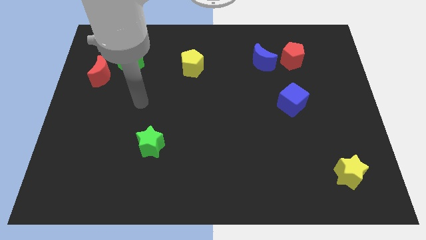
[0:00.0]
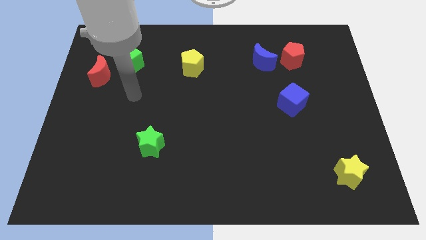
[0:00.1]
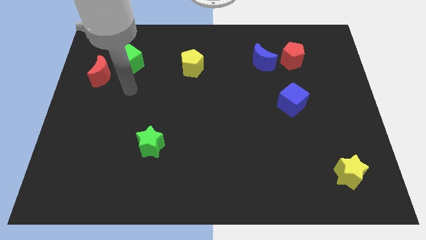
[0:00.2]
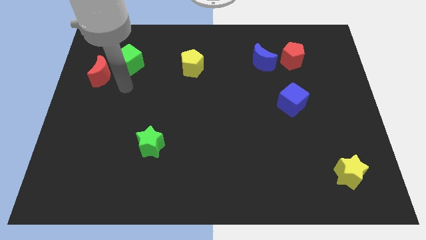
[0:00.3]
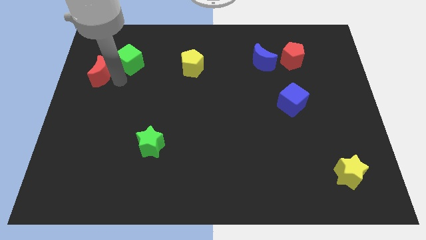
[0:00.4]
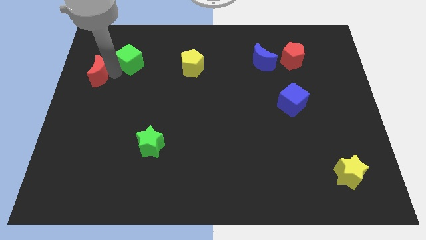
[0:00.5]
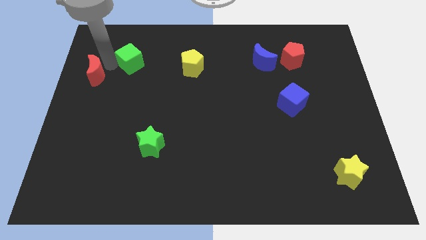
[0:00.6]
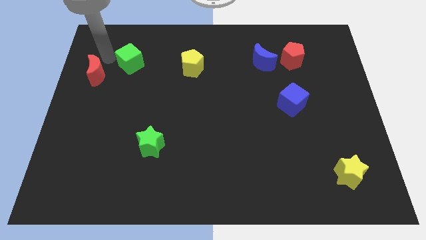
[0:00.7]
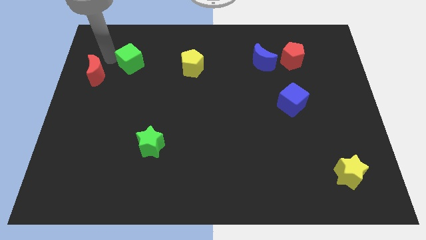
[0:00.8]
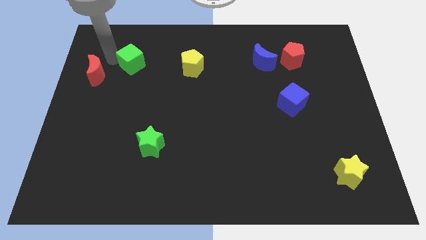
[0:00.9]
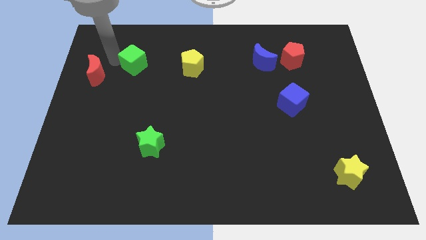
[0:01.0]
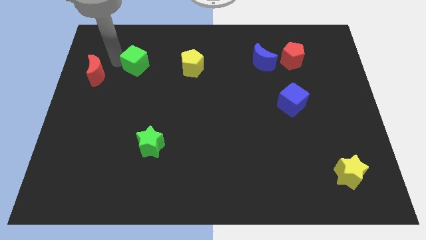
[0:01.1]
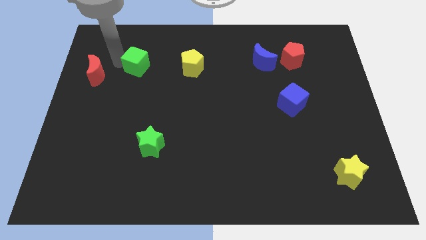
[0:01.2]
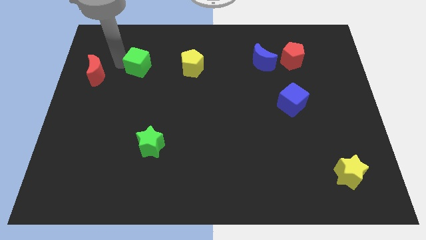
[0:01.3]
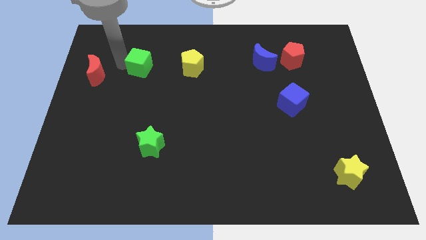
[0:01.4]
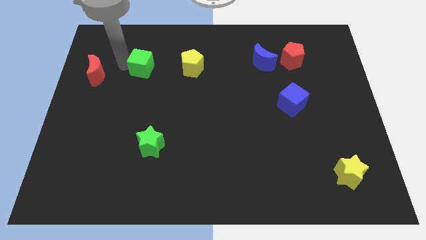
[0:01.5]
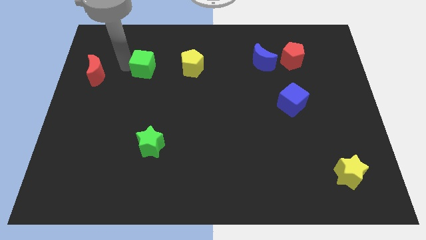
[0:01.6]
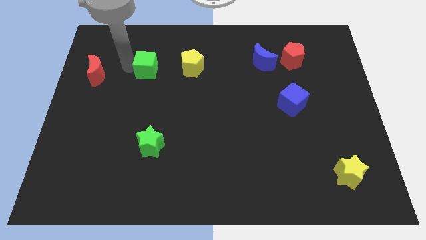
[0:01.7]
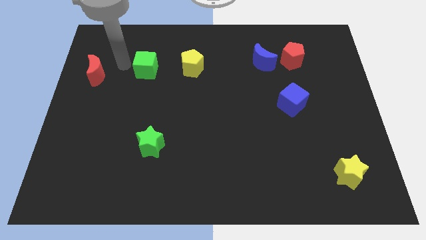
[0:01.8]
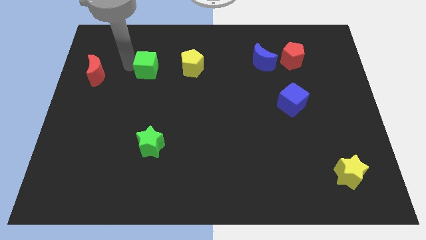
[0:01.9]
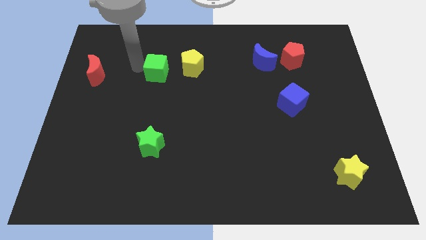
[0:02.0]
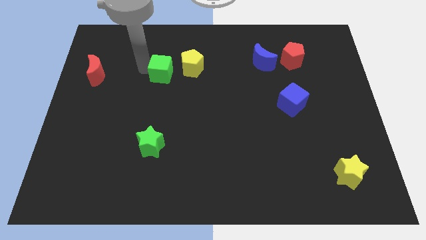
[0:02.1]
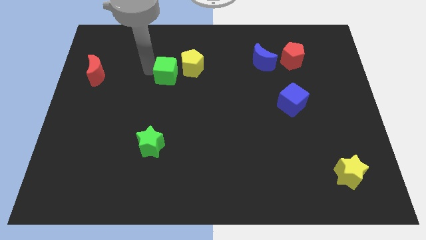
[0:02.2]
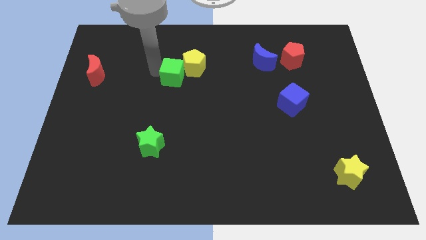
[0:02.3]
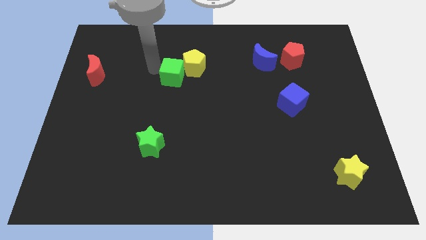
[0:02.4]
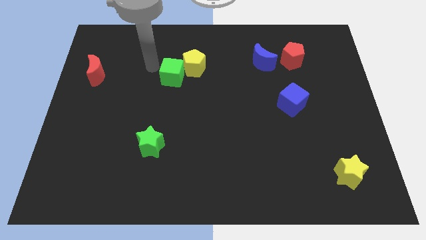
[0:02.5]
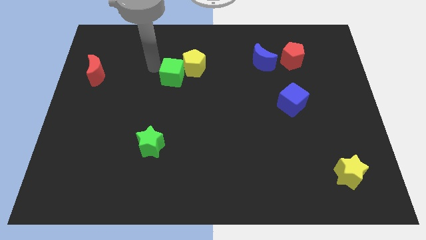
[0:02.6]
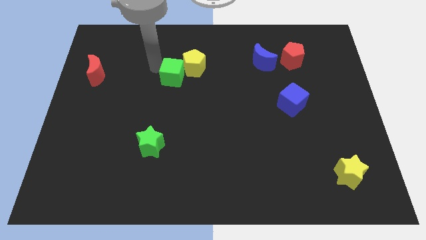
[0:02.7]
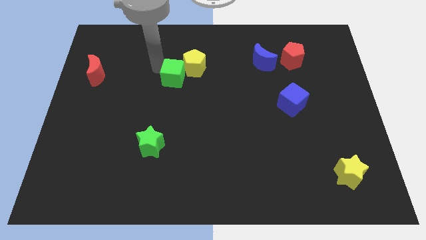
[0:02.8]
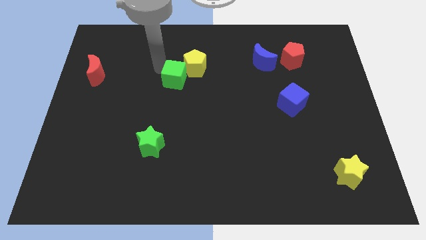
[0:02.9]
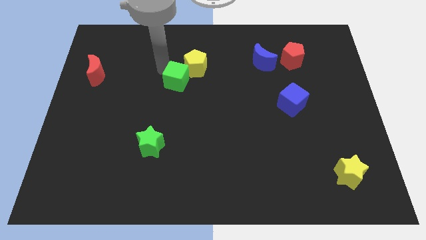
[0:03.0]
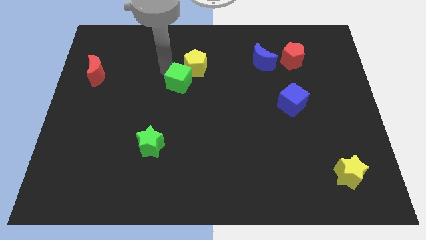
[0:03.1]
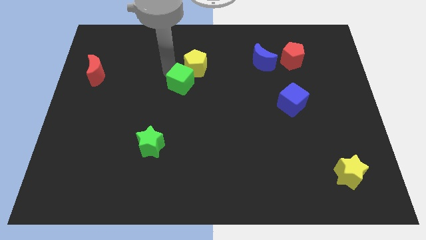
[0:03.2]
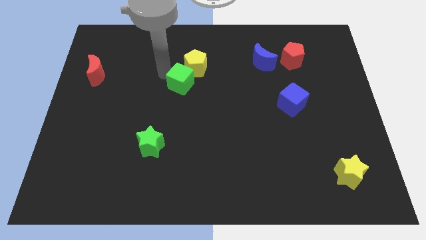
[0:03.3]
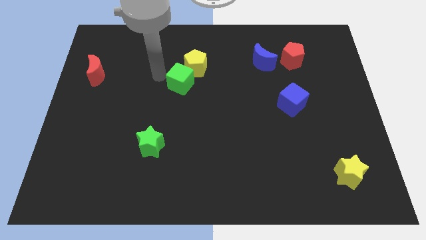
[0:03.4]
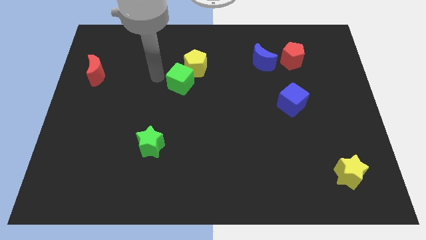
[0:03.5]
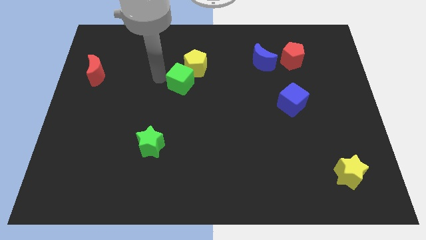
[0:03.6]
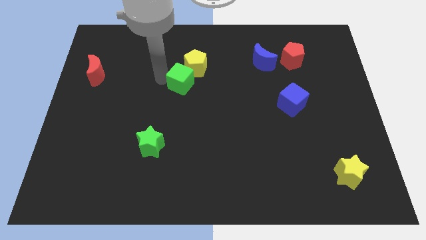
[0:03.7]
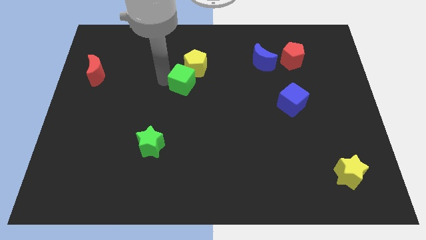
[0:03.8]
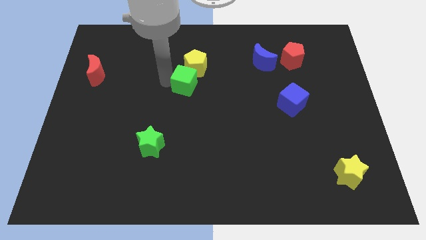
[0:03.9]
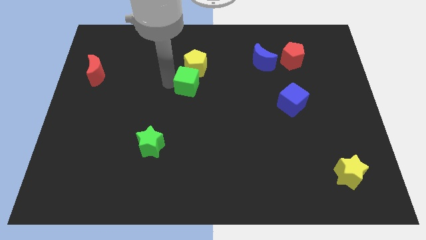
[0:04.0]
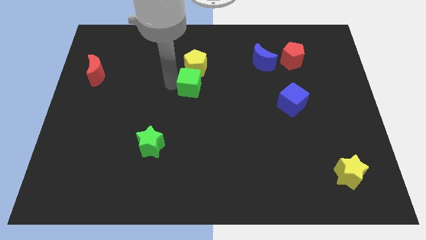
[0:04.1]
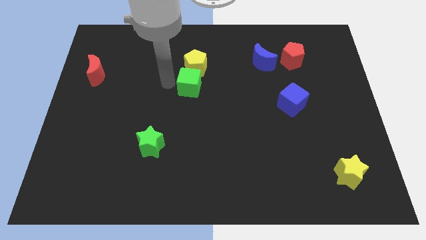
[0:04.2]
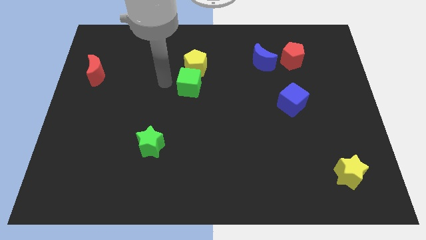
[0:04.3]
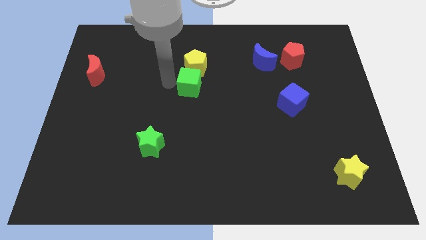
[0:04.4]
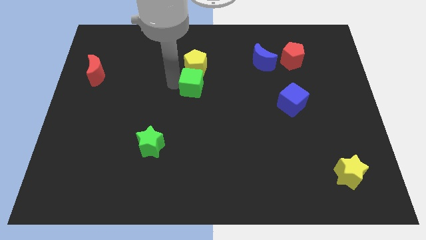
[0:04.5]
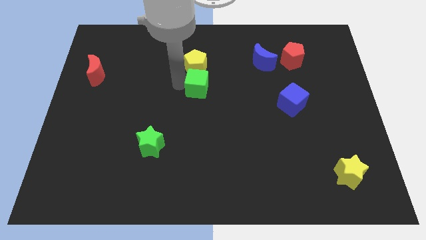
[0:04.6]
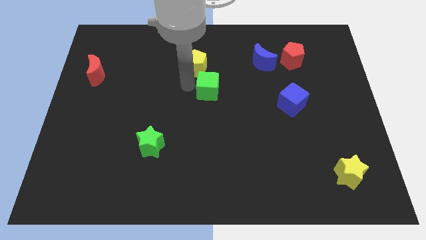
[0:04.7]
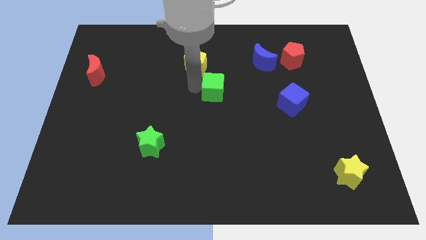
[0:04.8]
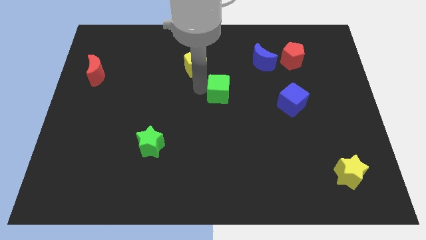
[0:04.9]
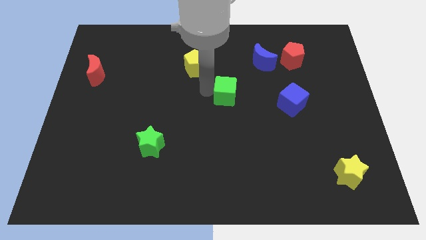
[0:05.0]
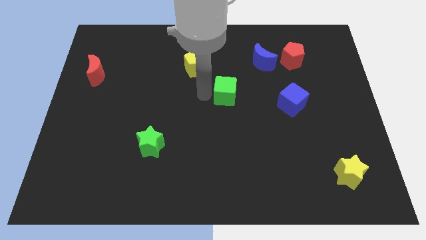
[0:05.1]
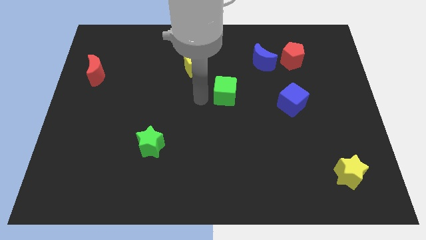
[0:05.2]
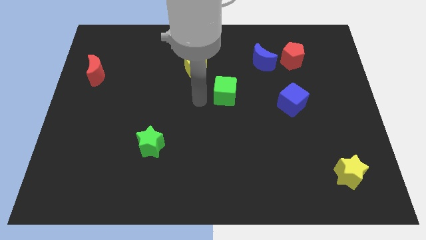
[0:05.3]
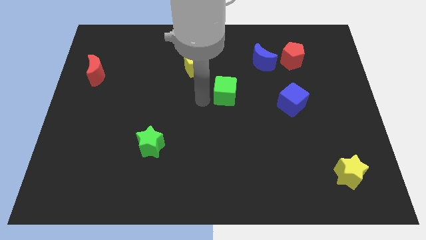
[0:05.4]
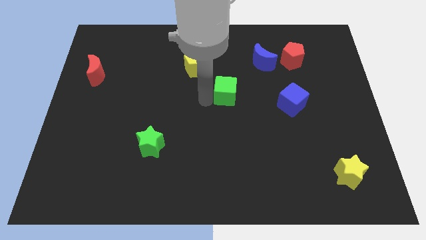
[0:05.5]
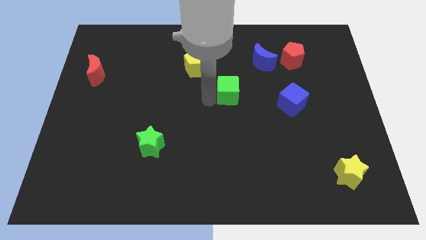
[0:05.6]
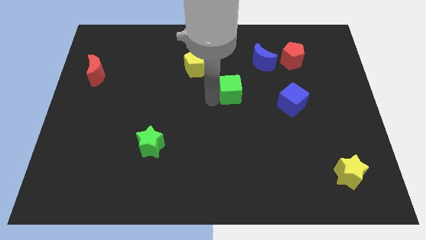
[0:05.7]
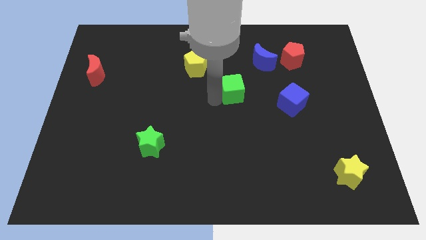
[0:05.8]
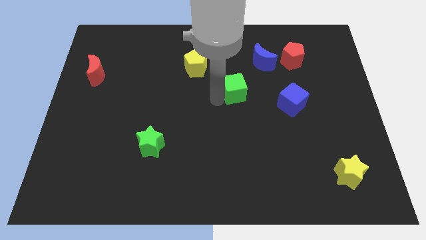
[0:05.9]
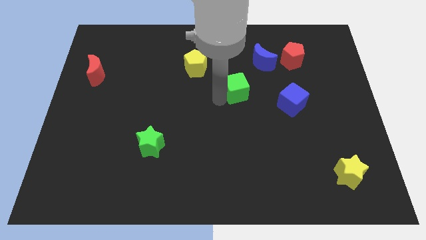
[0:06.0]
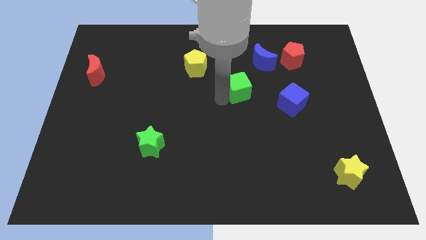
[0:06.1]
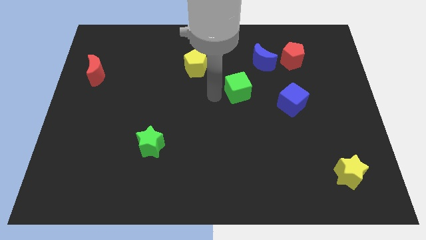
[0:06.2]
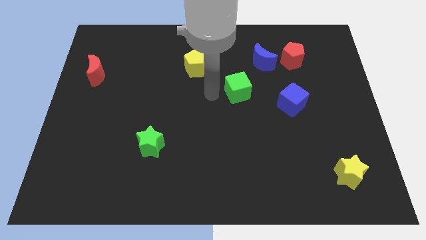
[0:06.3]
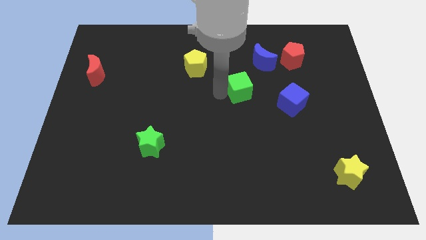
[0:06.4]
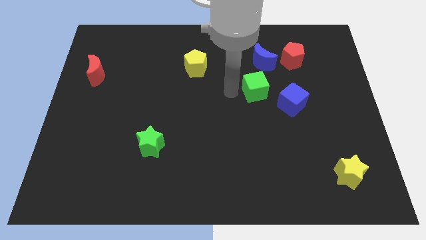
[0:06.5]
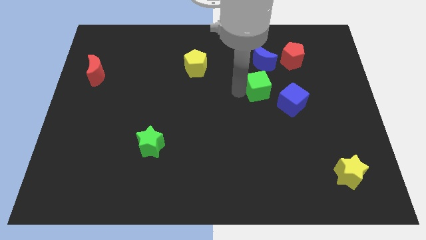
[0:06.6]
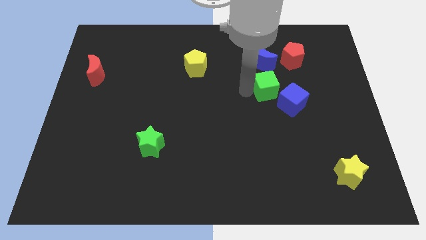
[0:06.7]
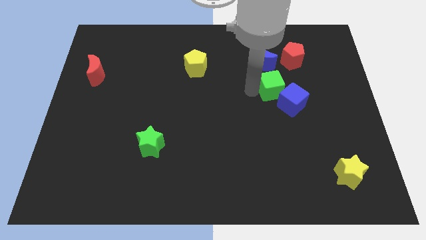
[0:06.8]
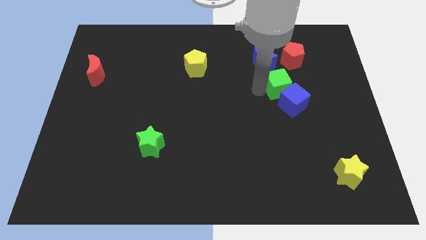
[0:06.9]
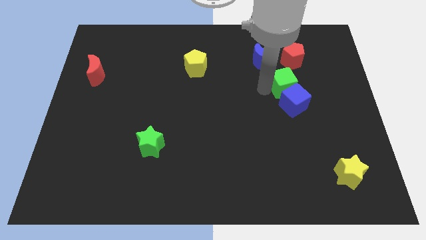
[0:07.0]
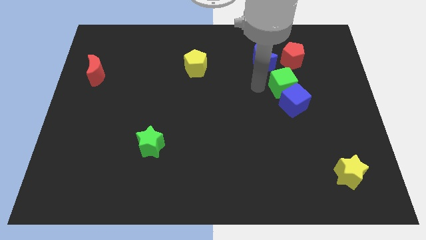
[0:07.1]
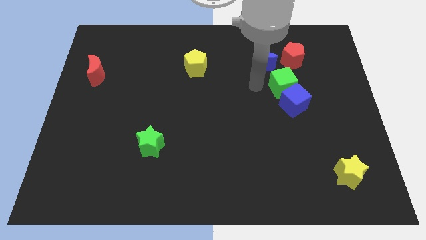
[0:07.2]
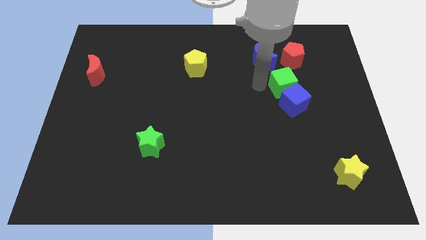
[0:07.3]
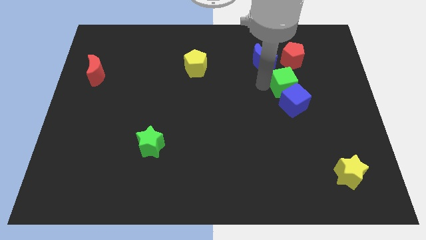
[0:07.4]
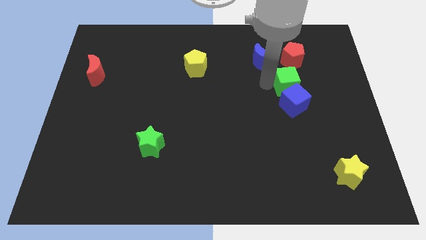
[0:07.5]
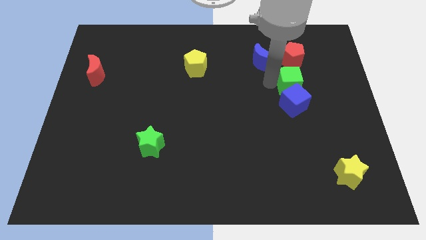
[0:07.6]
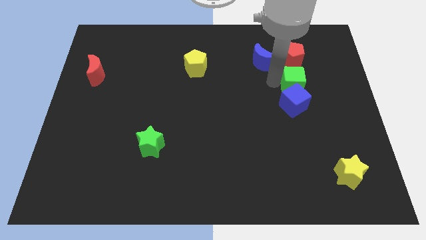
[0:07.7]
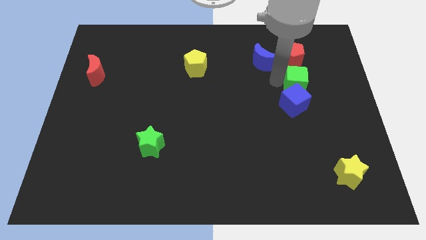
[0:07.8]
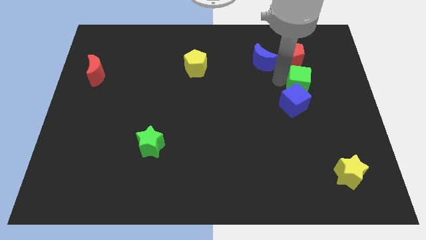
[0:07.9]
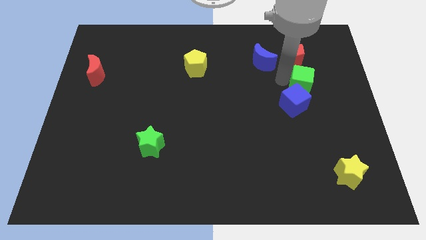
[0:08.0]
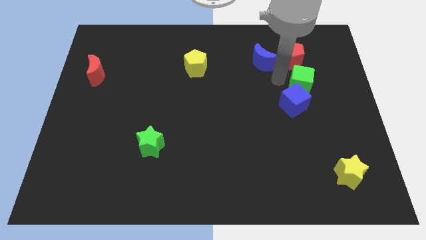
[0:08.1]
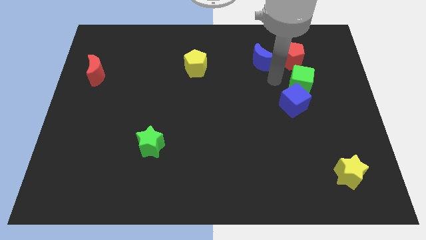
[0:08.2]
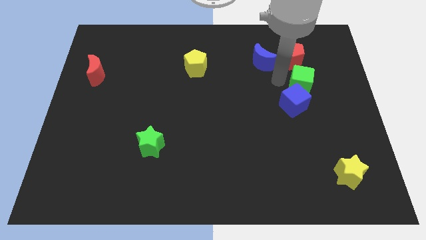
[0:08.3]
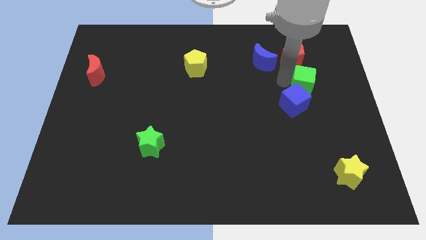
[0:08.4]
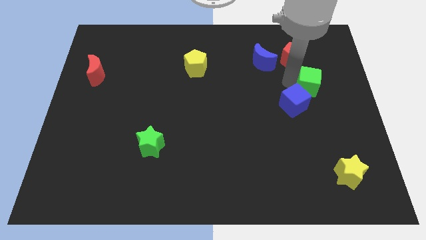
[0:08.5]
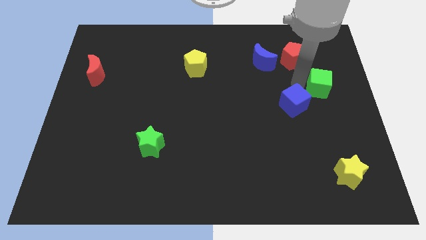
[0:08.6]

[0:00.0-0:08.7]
push the green cube to the right side
